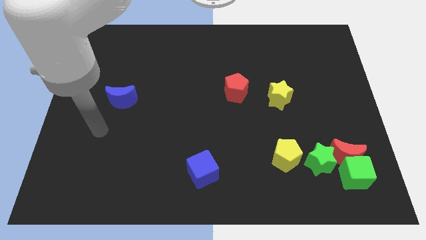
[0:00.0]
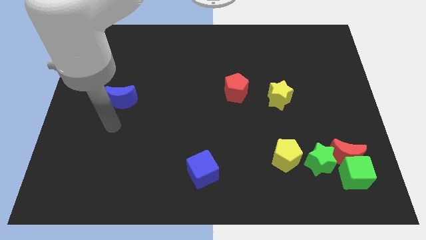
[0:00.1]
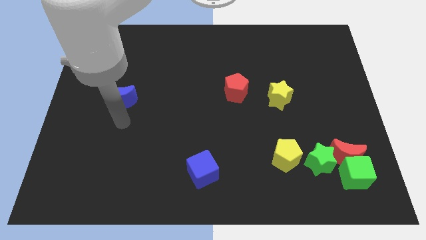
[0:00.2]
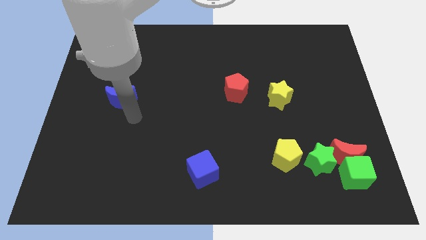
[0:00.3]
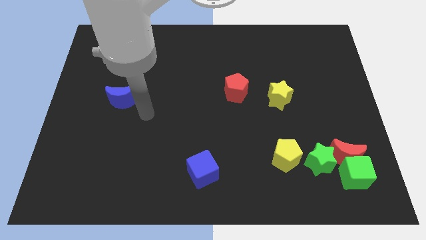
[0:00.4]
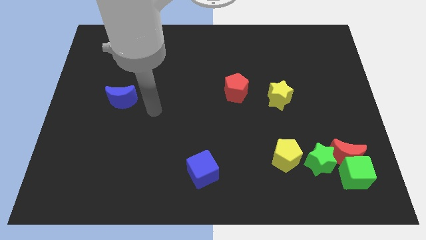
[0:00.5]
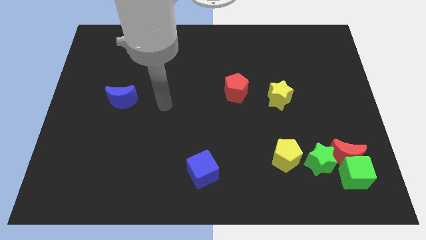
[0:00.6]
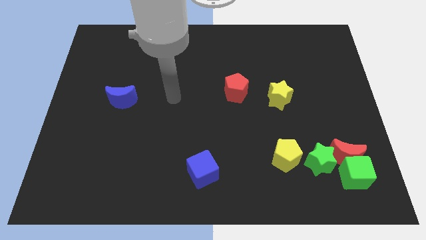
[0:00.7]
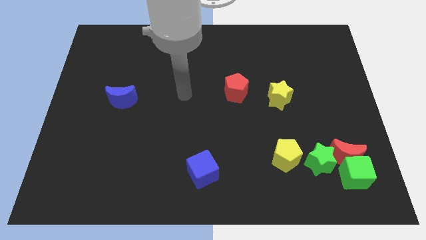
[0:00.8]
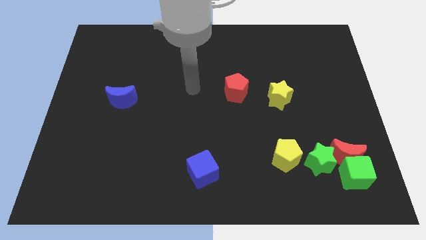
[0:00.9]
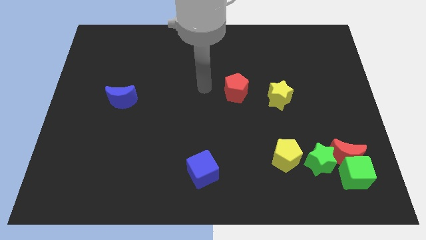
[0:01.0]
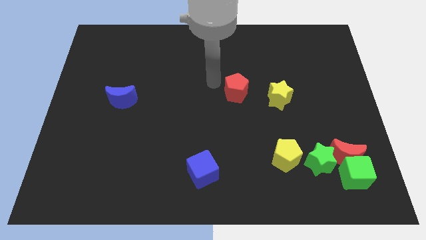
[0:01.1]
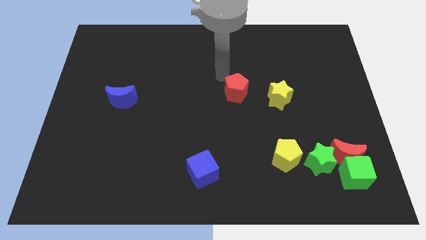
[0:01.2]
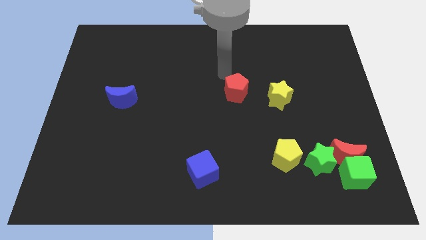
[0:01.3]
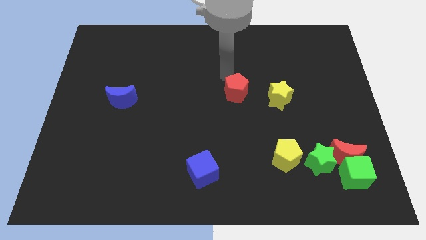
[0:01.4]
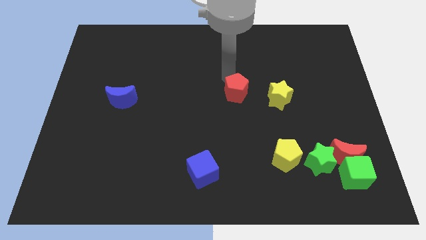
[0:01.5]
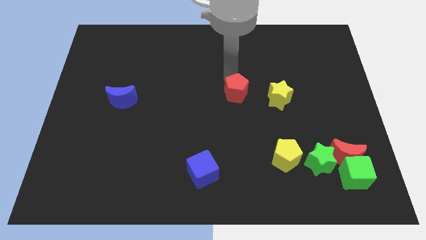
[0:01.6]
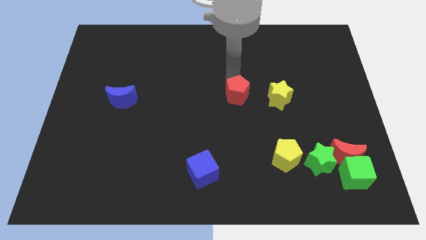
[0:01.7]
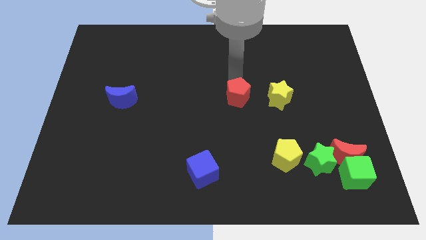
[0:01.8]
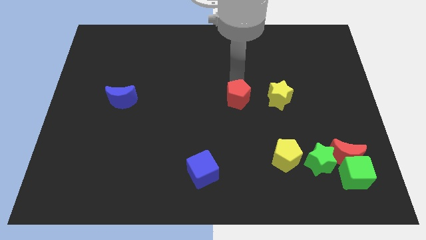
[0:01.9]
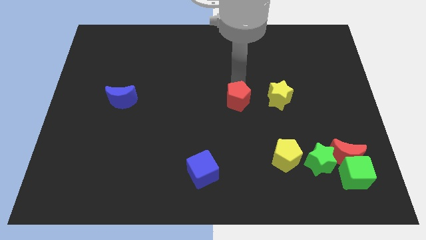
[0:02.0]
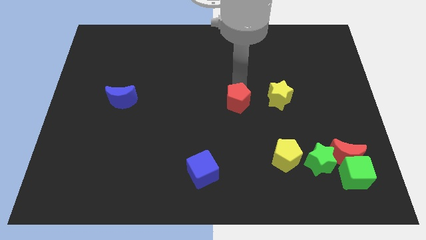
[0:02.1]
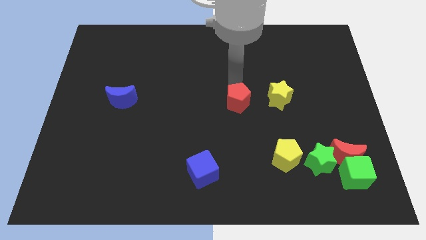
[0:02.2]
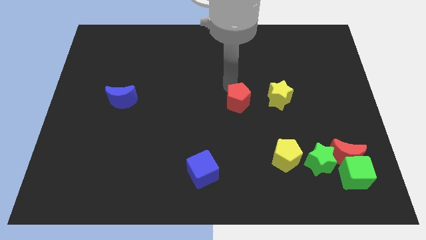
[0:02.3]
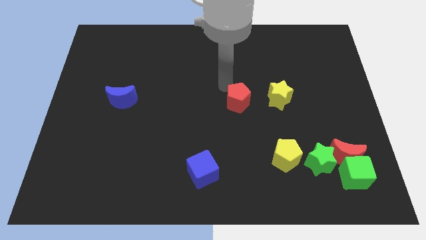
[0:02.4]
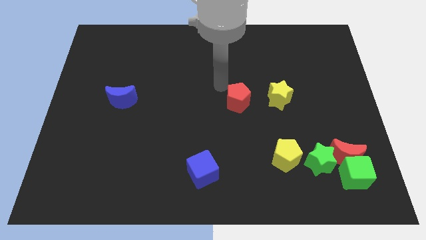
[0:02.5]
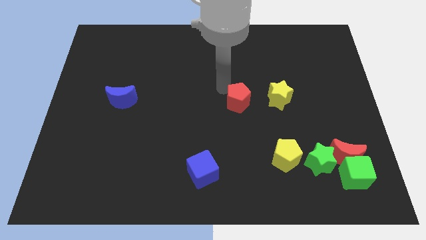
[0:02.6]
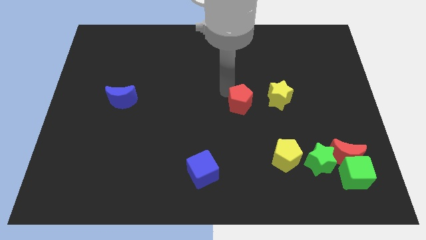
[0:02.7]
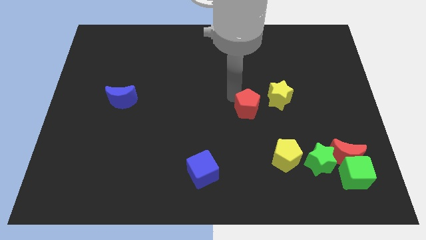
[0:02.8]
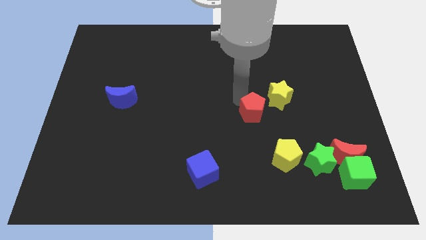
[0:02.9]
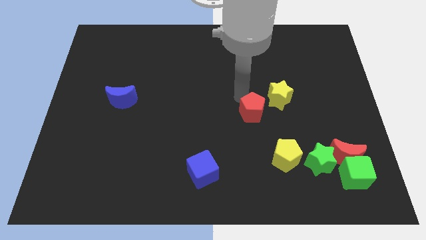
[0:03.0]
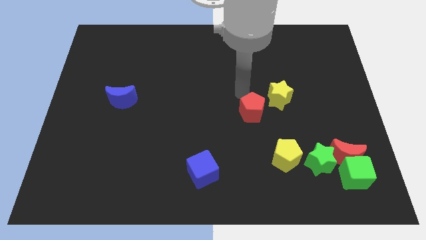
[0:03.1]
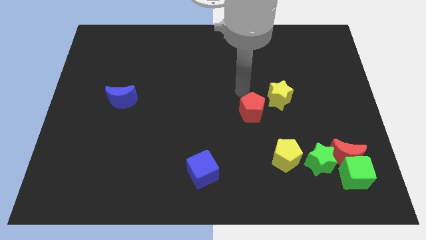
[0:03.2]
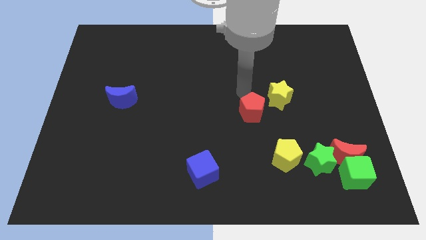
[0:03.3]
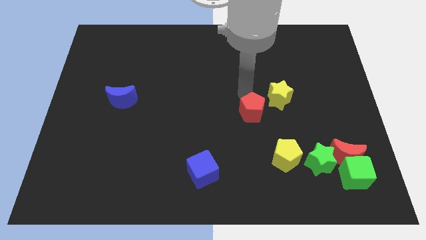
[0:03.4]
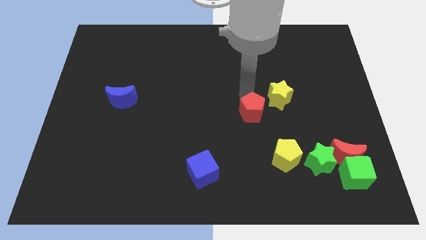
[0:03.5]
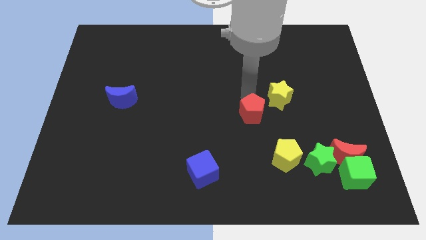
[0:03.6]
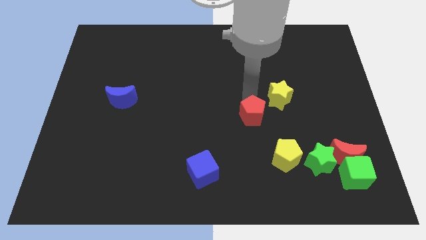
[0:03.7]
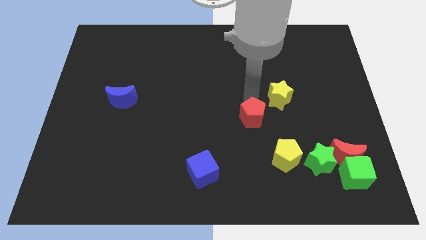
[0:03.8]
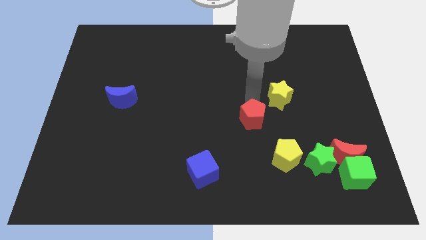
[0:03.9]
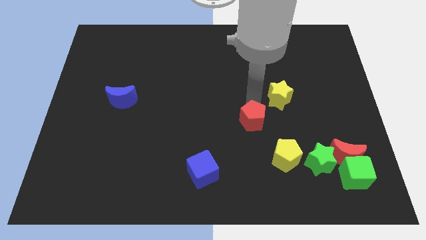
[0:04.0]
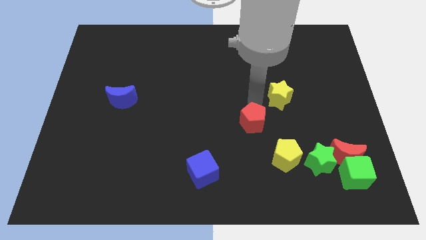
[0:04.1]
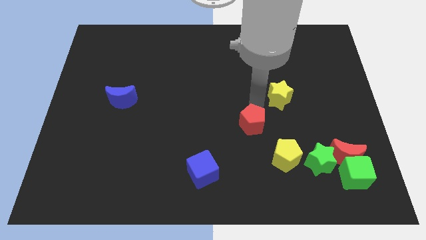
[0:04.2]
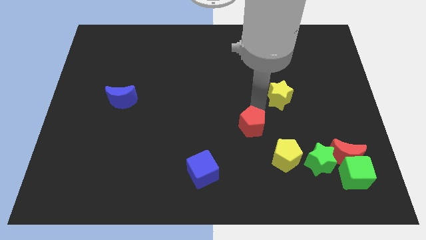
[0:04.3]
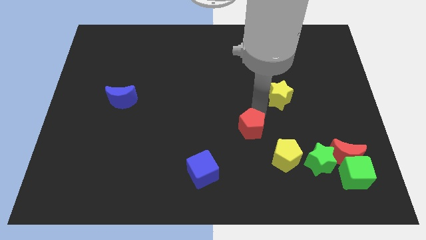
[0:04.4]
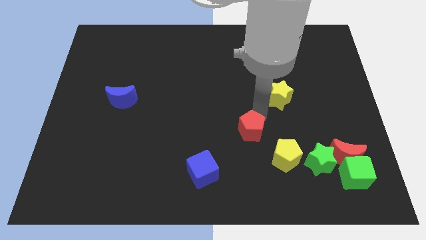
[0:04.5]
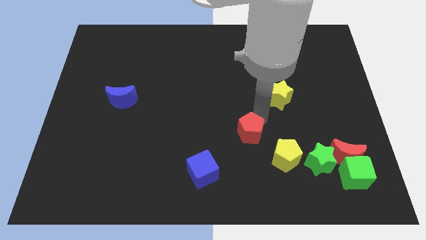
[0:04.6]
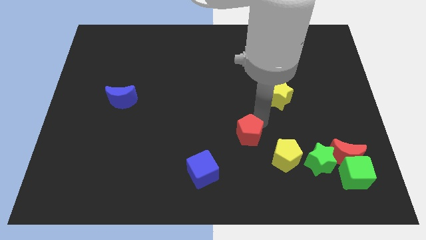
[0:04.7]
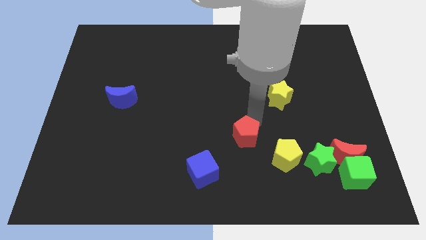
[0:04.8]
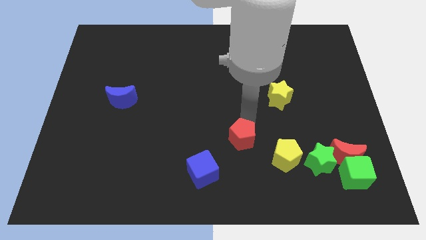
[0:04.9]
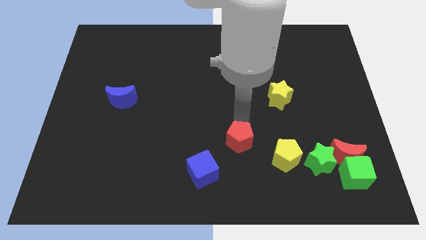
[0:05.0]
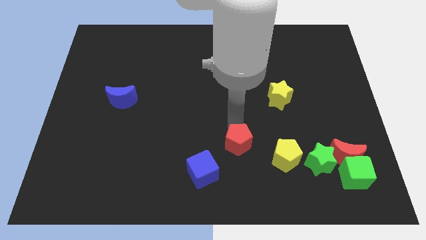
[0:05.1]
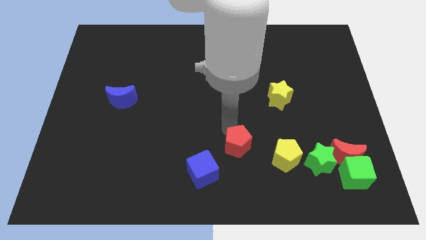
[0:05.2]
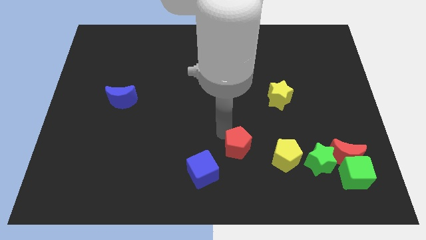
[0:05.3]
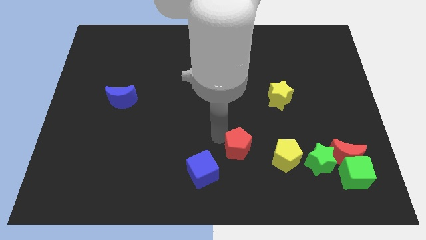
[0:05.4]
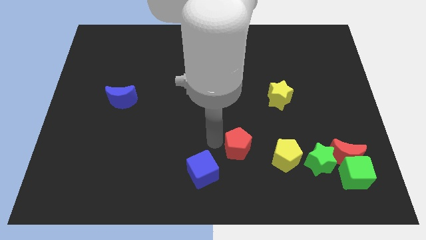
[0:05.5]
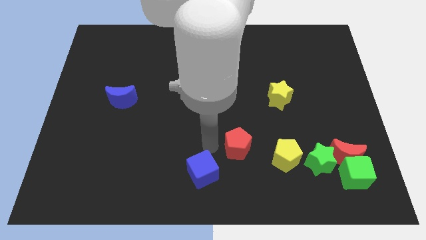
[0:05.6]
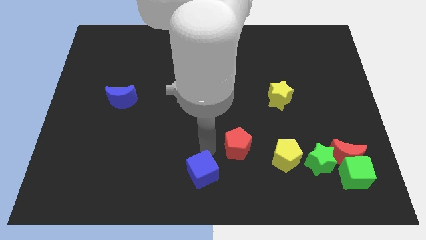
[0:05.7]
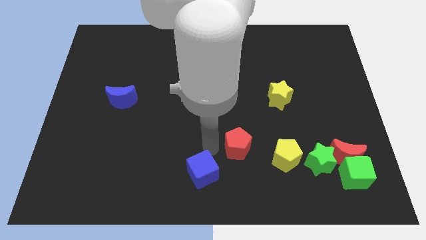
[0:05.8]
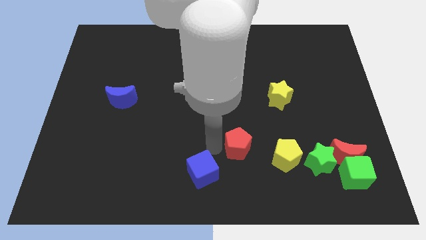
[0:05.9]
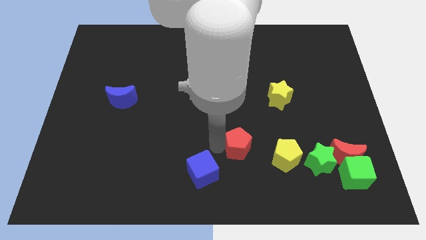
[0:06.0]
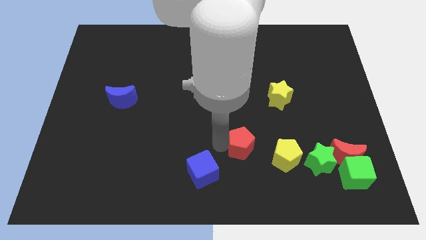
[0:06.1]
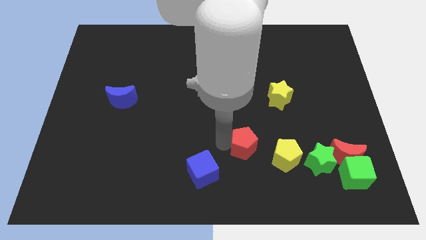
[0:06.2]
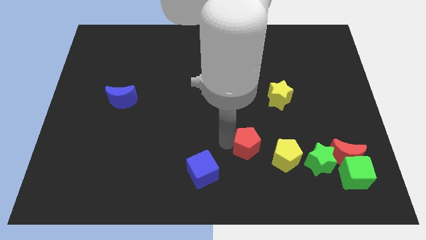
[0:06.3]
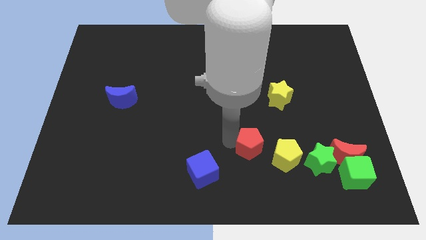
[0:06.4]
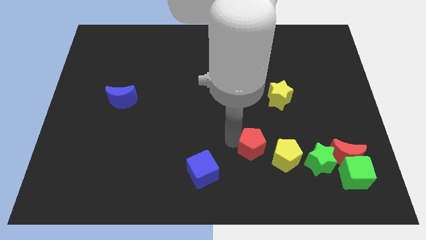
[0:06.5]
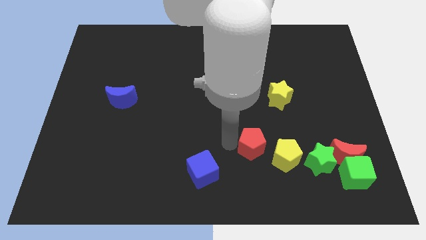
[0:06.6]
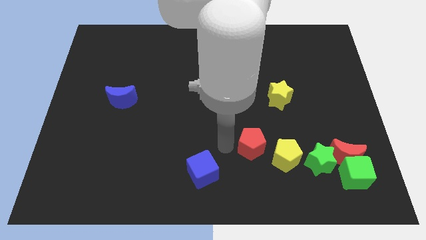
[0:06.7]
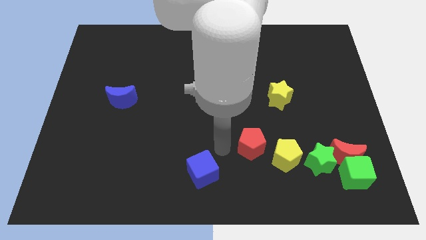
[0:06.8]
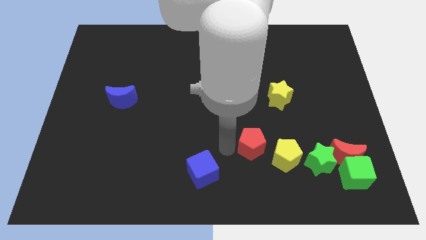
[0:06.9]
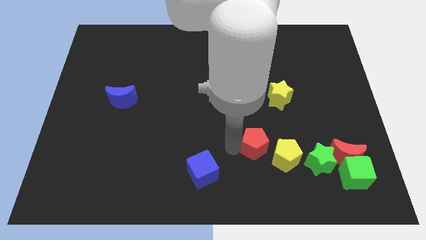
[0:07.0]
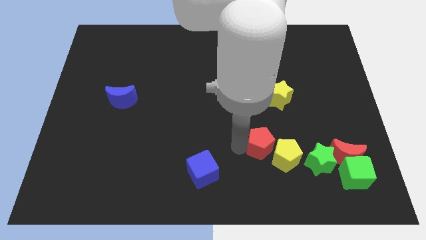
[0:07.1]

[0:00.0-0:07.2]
push the red pentagon next to the yellow pentagon
